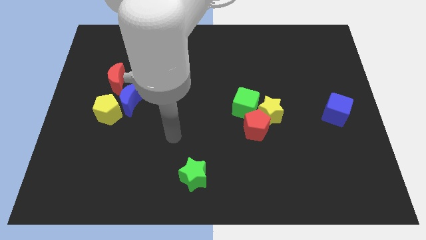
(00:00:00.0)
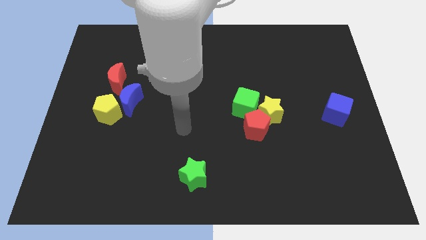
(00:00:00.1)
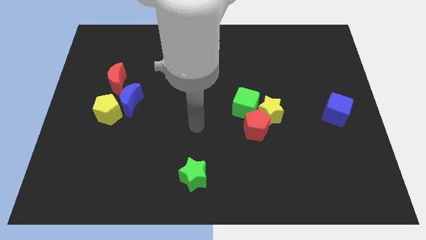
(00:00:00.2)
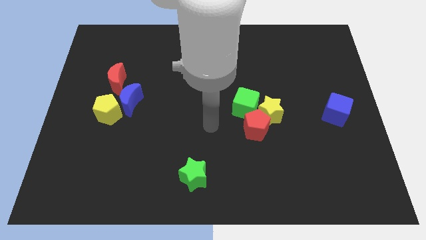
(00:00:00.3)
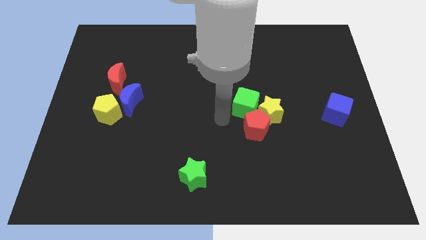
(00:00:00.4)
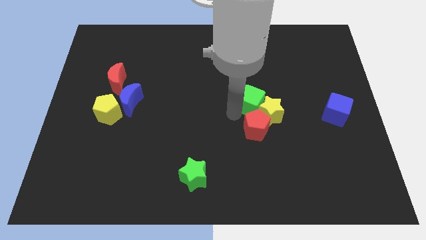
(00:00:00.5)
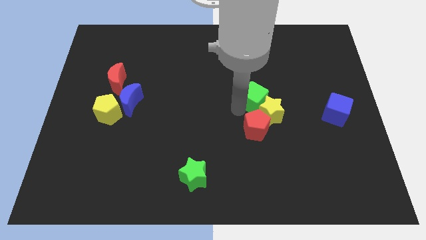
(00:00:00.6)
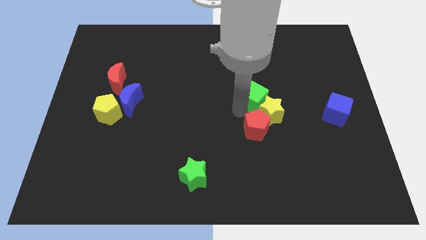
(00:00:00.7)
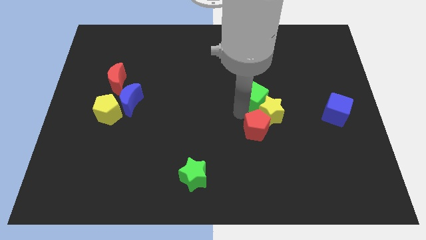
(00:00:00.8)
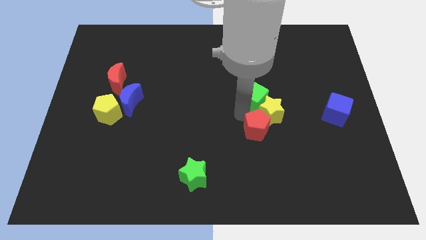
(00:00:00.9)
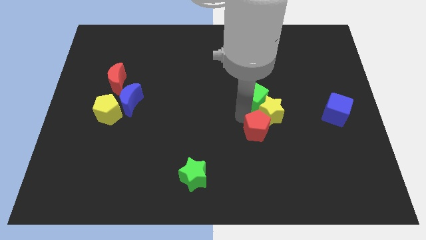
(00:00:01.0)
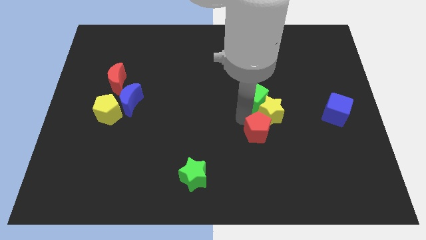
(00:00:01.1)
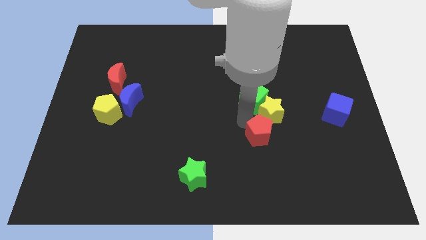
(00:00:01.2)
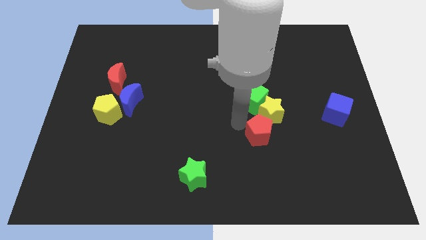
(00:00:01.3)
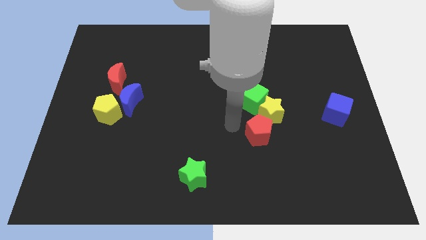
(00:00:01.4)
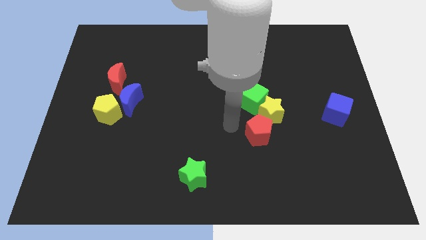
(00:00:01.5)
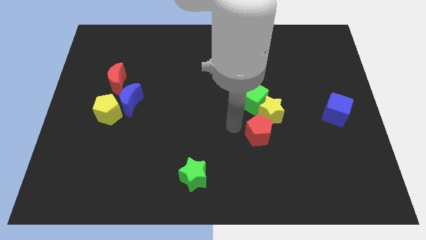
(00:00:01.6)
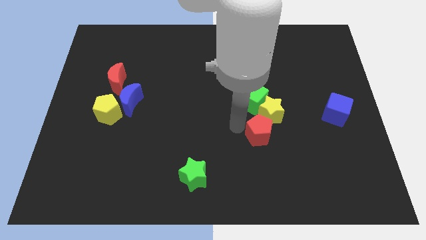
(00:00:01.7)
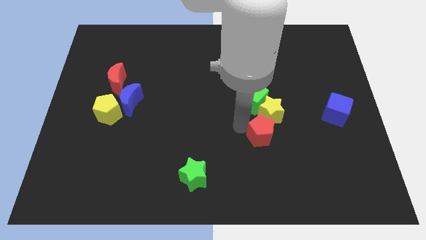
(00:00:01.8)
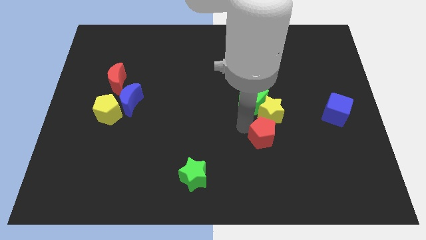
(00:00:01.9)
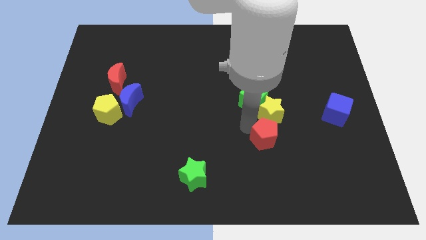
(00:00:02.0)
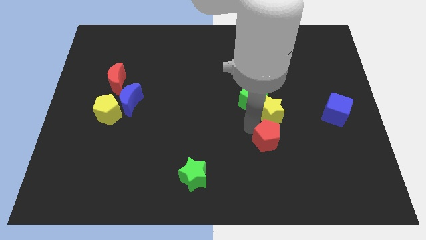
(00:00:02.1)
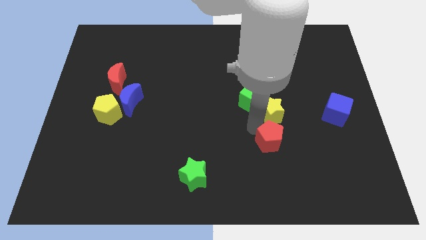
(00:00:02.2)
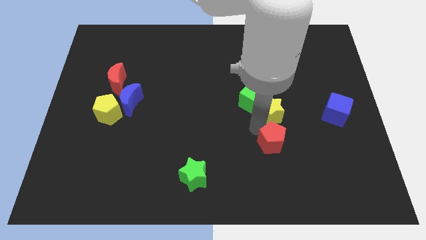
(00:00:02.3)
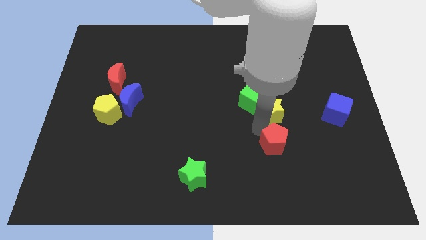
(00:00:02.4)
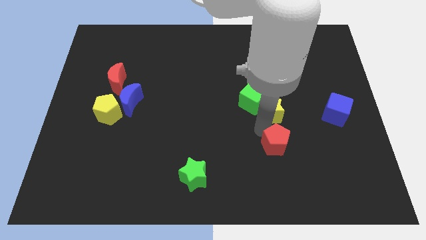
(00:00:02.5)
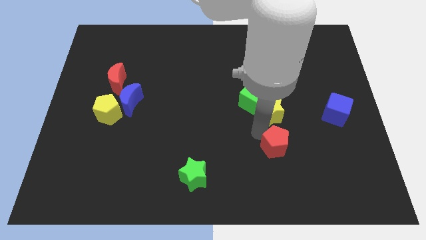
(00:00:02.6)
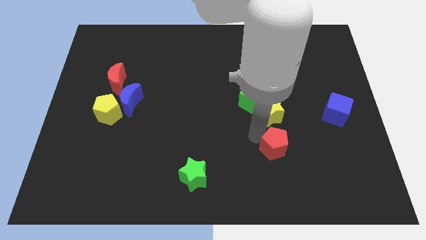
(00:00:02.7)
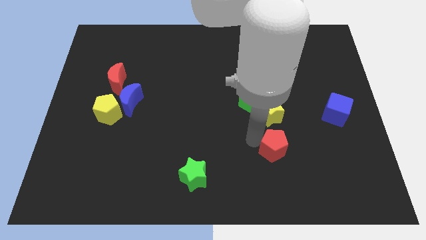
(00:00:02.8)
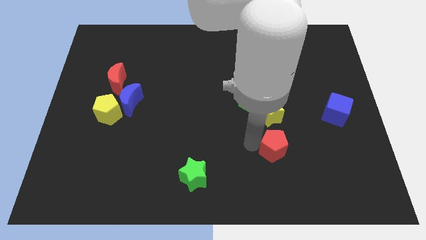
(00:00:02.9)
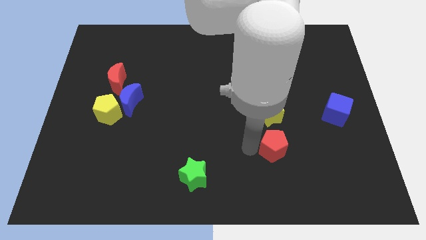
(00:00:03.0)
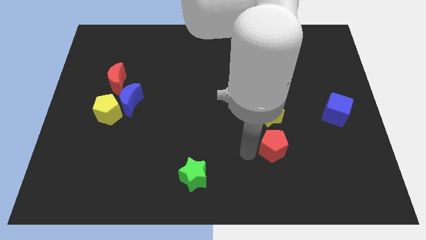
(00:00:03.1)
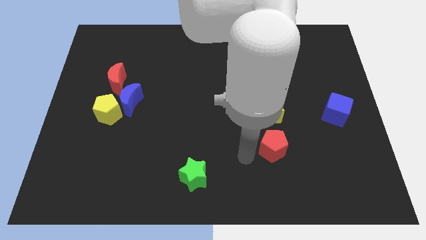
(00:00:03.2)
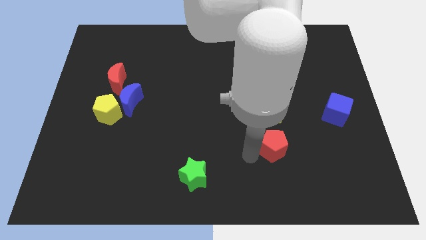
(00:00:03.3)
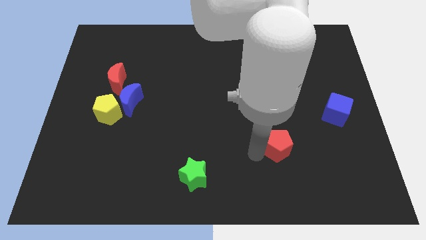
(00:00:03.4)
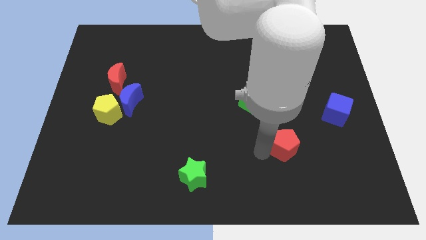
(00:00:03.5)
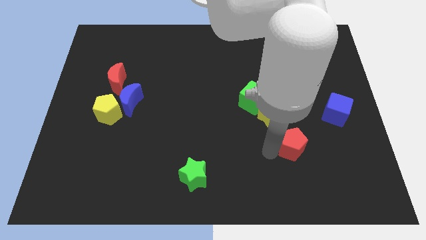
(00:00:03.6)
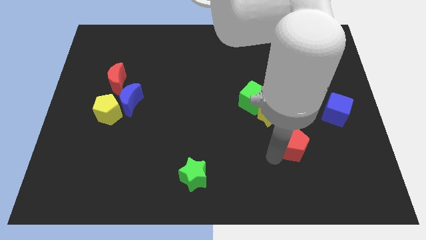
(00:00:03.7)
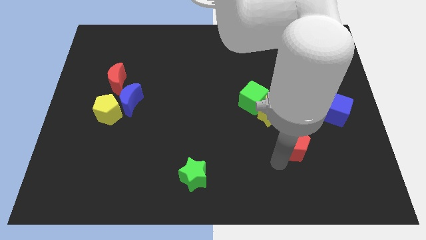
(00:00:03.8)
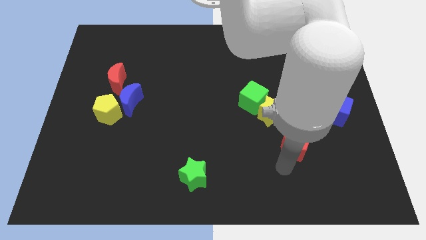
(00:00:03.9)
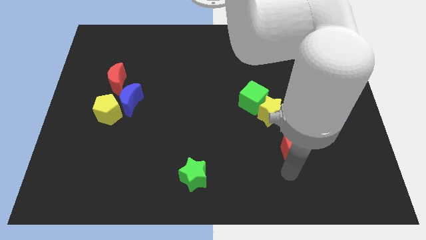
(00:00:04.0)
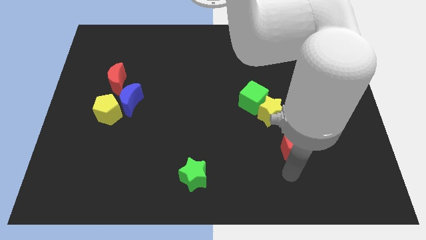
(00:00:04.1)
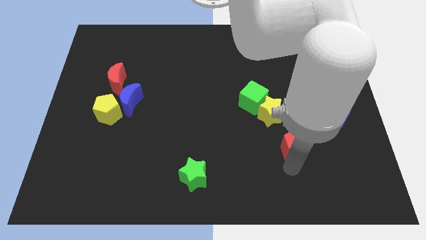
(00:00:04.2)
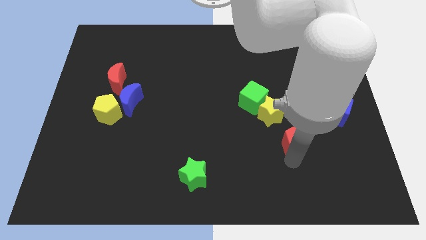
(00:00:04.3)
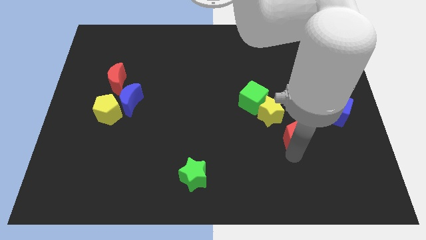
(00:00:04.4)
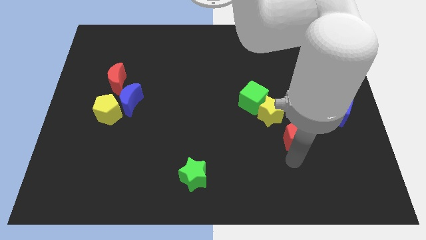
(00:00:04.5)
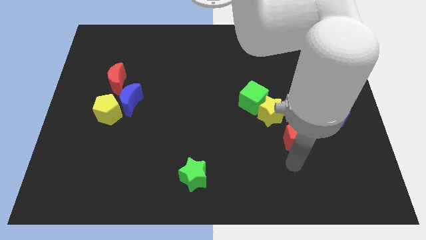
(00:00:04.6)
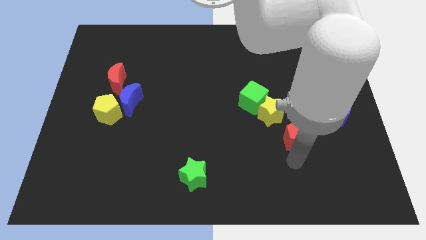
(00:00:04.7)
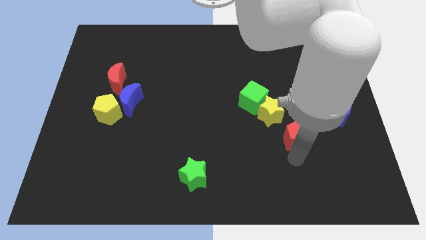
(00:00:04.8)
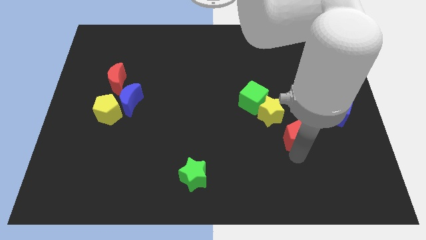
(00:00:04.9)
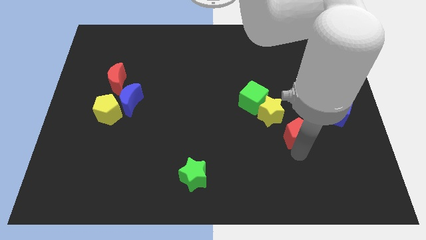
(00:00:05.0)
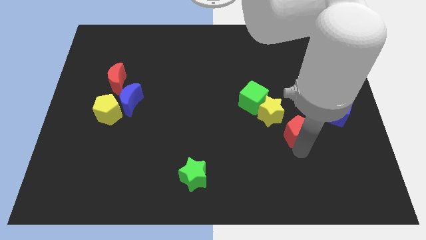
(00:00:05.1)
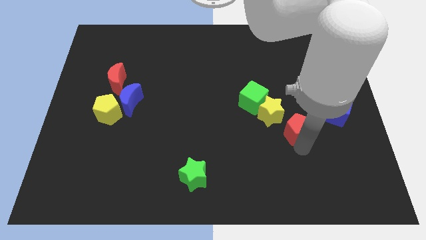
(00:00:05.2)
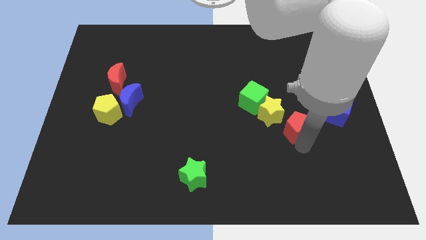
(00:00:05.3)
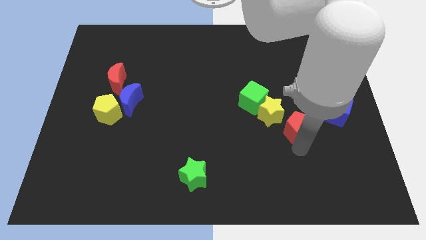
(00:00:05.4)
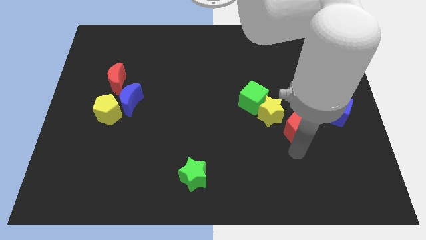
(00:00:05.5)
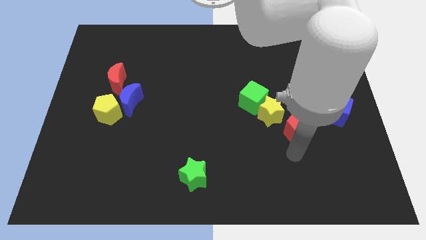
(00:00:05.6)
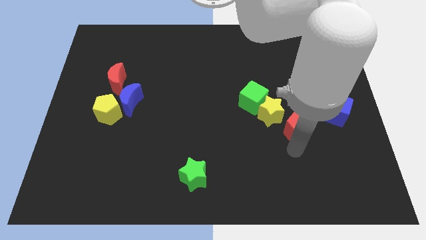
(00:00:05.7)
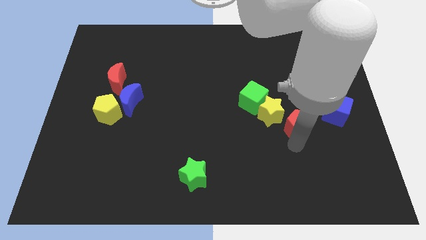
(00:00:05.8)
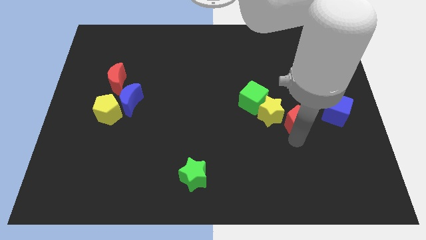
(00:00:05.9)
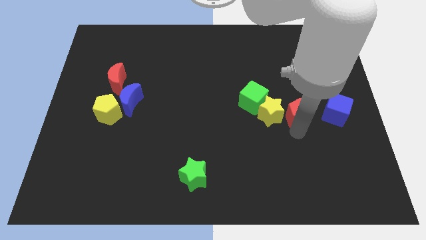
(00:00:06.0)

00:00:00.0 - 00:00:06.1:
move the red pentagon upwards and right diagonally slightly

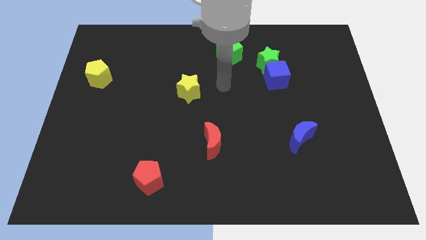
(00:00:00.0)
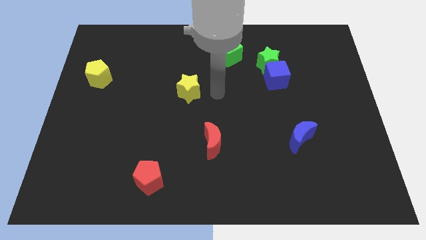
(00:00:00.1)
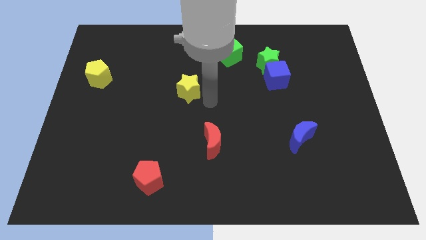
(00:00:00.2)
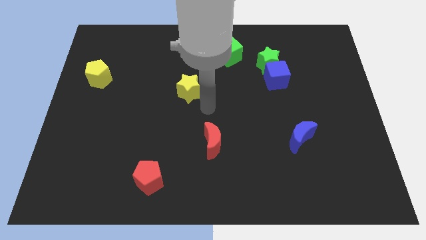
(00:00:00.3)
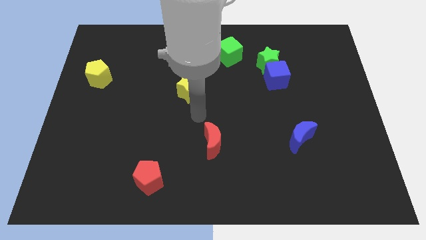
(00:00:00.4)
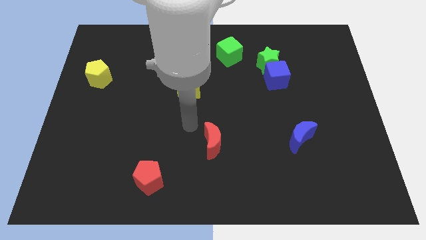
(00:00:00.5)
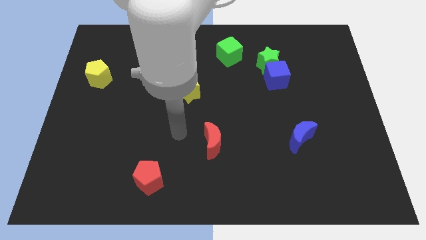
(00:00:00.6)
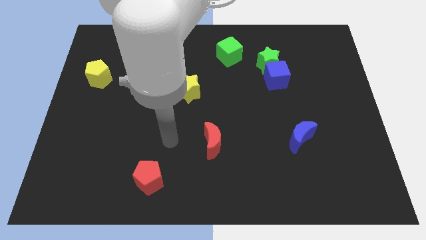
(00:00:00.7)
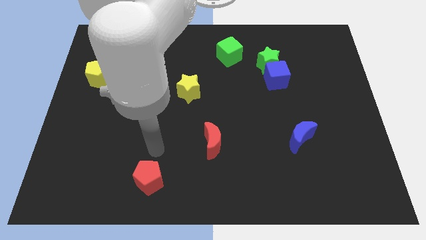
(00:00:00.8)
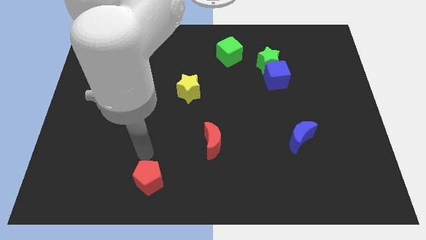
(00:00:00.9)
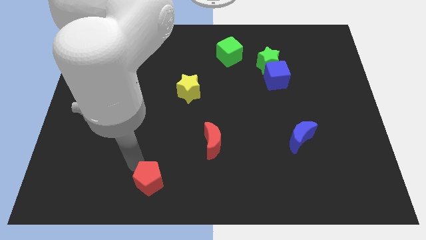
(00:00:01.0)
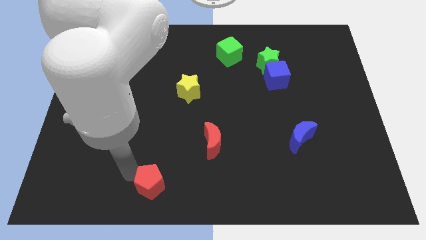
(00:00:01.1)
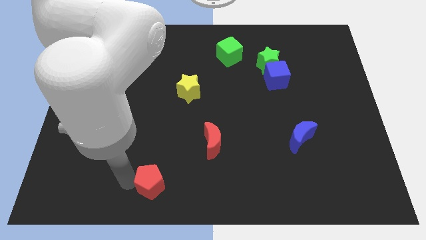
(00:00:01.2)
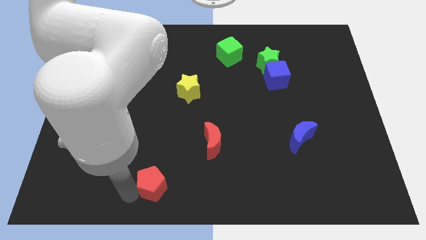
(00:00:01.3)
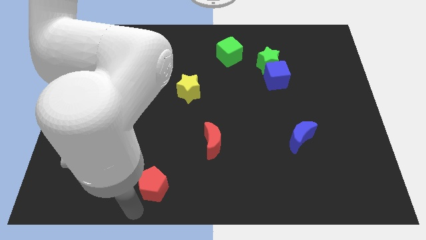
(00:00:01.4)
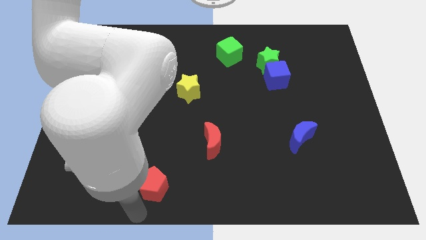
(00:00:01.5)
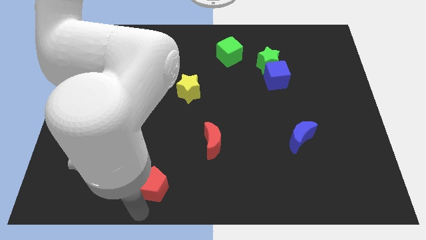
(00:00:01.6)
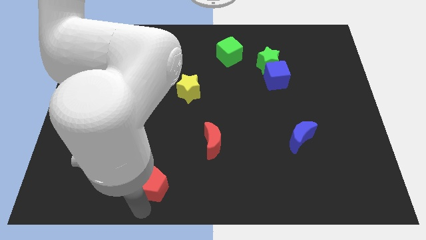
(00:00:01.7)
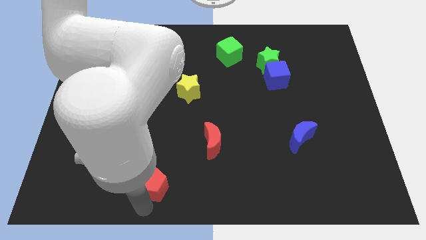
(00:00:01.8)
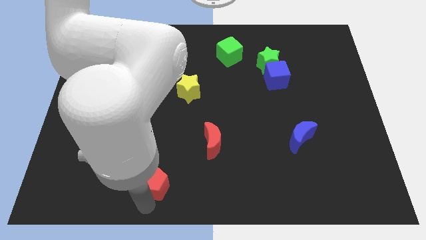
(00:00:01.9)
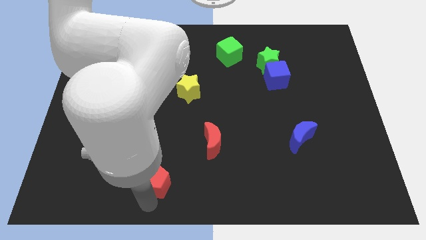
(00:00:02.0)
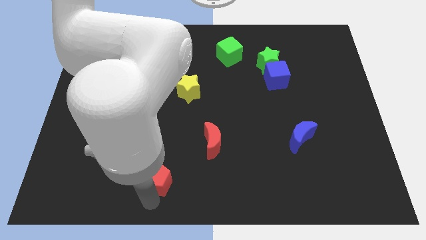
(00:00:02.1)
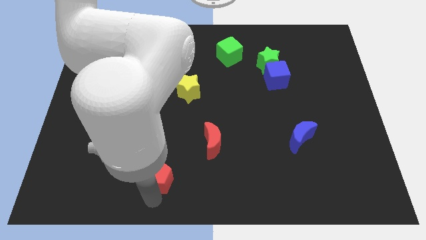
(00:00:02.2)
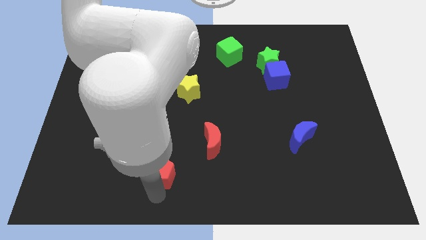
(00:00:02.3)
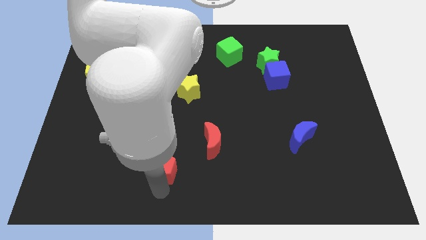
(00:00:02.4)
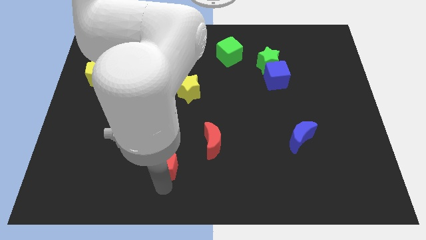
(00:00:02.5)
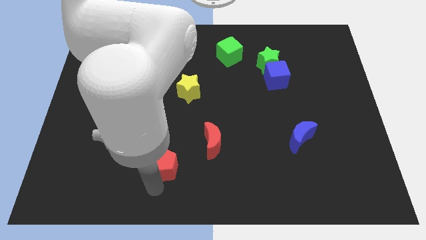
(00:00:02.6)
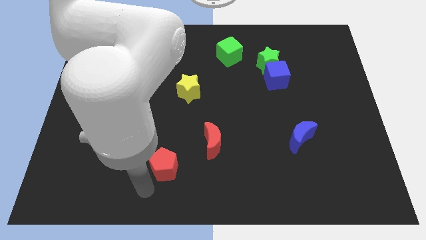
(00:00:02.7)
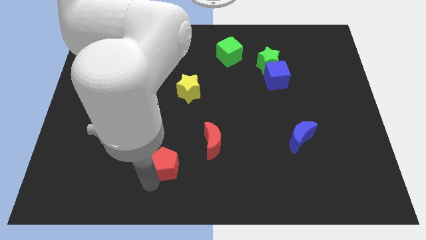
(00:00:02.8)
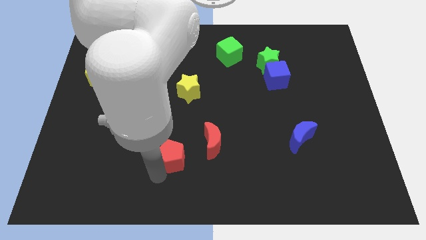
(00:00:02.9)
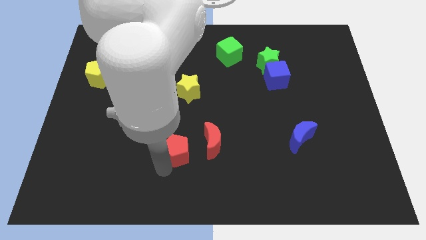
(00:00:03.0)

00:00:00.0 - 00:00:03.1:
slightly move the red pentagon up and right diagonally
